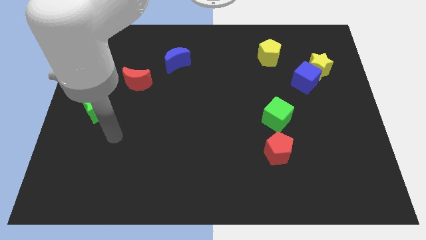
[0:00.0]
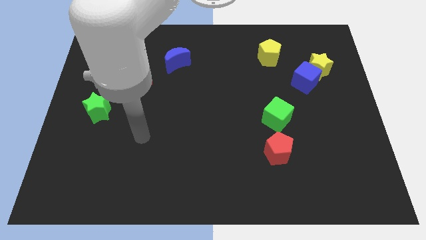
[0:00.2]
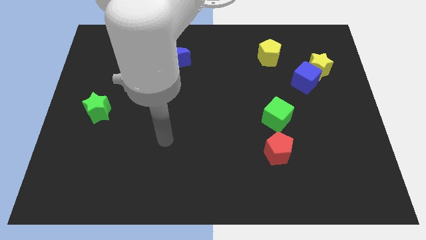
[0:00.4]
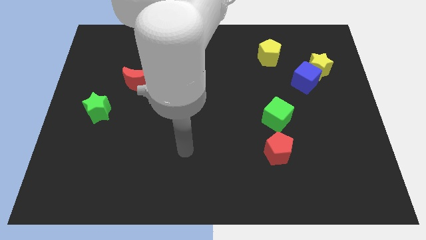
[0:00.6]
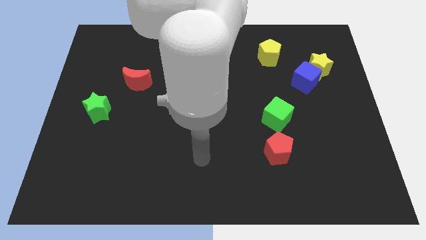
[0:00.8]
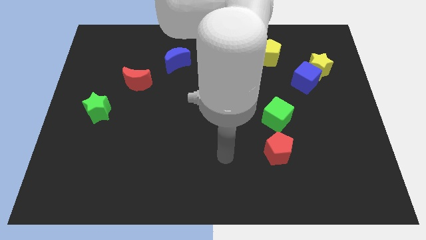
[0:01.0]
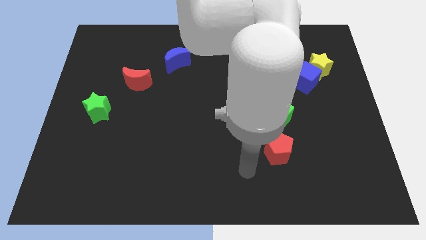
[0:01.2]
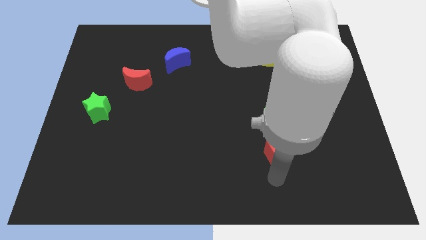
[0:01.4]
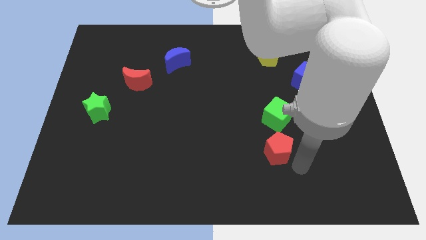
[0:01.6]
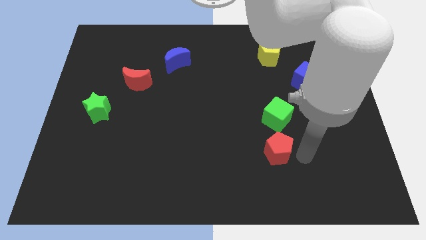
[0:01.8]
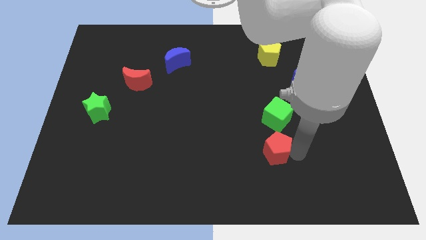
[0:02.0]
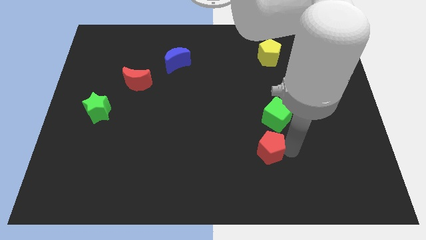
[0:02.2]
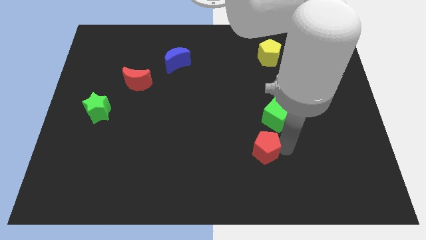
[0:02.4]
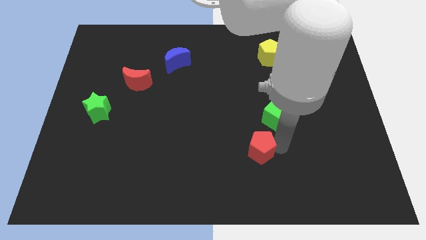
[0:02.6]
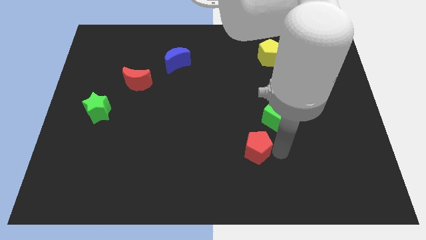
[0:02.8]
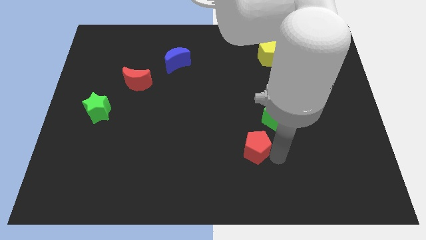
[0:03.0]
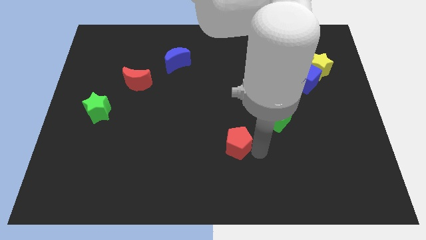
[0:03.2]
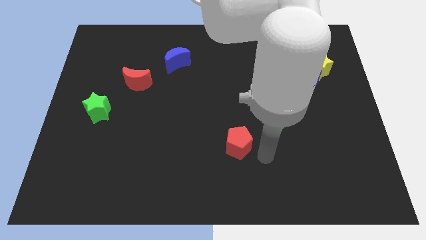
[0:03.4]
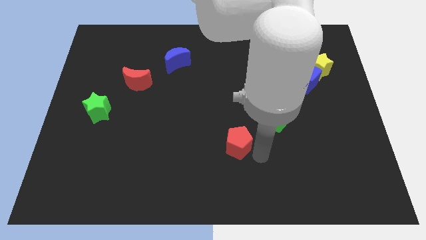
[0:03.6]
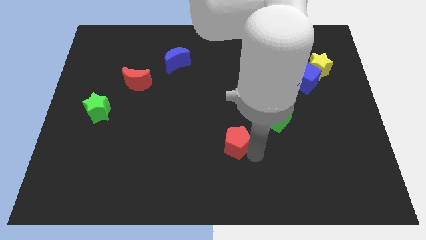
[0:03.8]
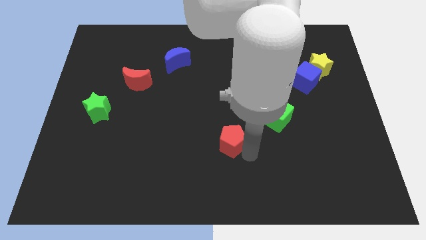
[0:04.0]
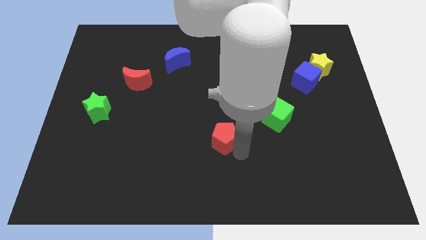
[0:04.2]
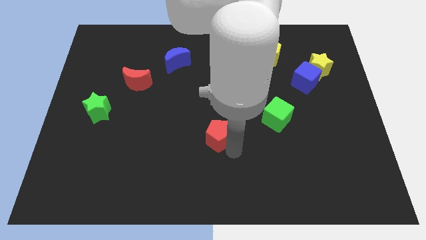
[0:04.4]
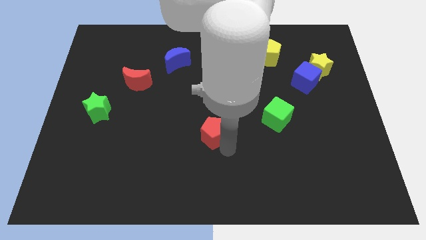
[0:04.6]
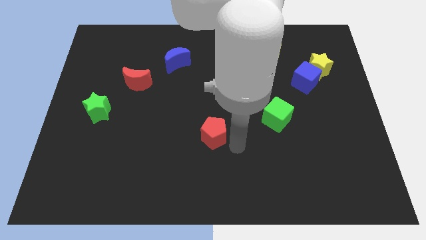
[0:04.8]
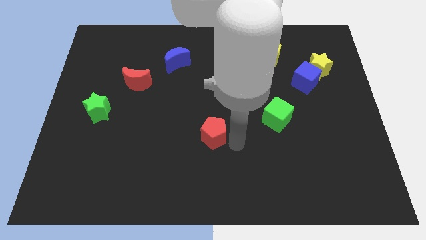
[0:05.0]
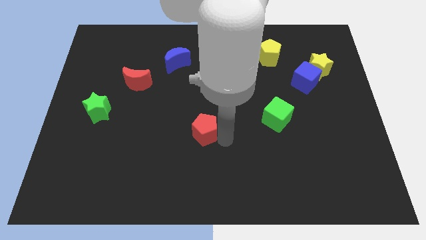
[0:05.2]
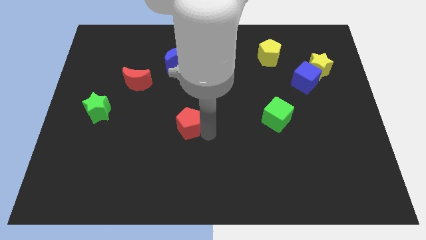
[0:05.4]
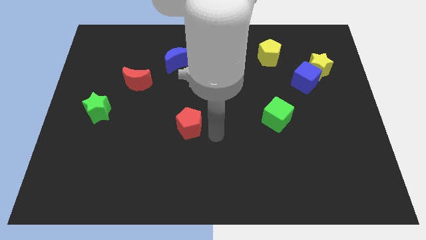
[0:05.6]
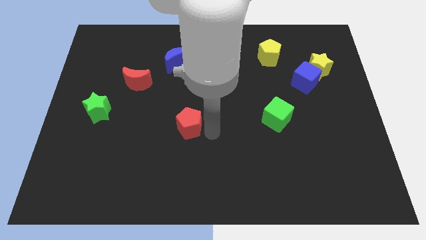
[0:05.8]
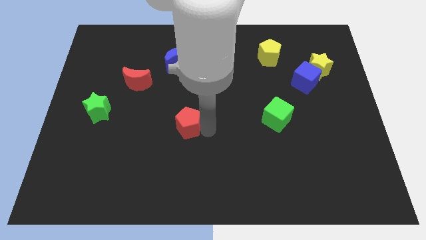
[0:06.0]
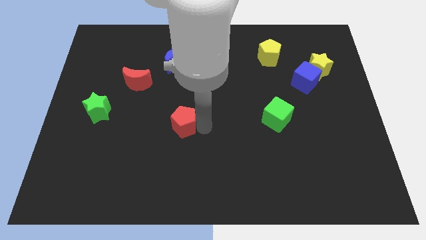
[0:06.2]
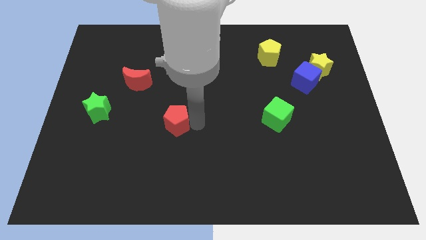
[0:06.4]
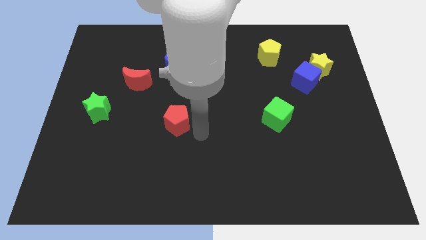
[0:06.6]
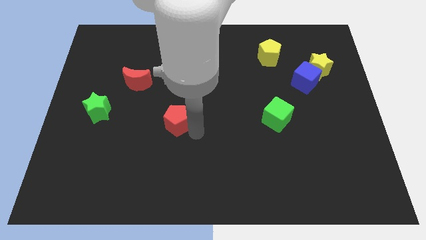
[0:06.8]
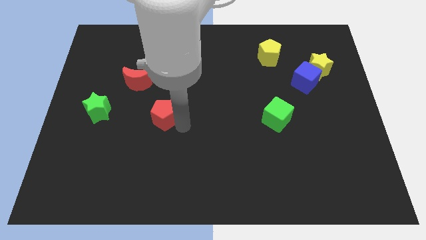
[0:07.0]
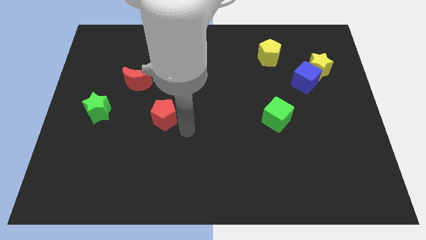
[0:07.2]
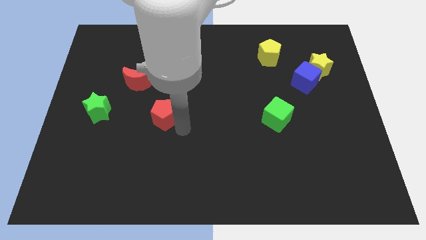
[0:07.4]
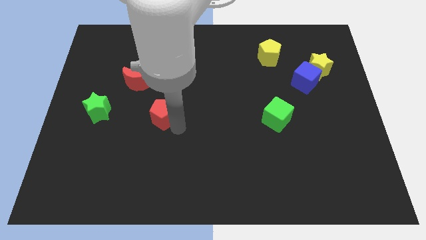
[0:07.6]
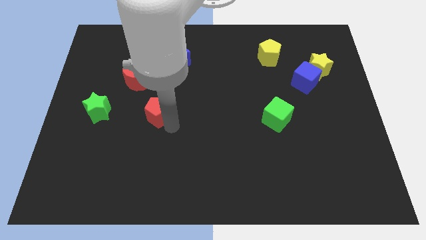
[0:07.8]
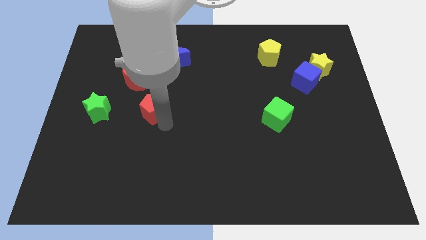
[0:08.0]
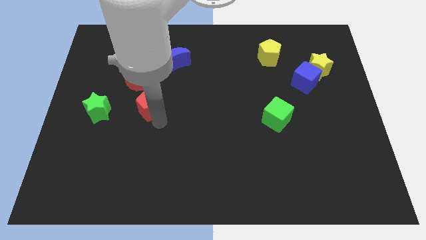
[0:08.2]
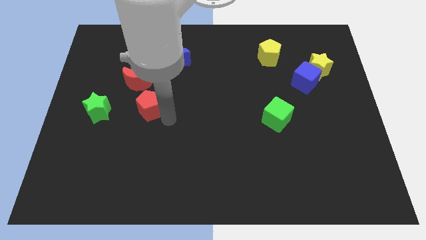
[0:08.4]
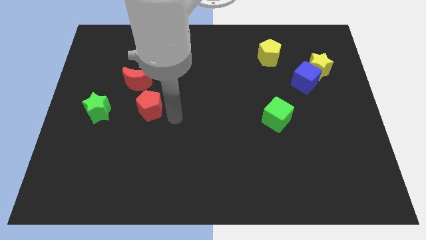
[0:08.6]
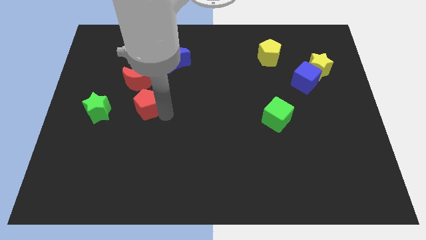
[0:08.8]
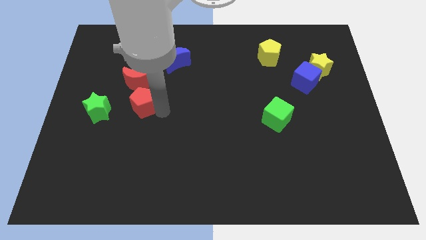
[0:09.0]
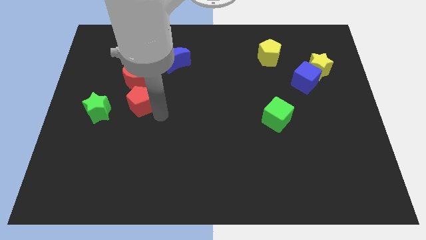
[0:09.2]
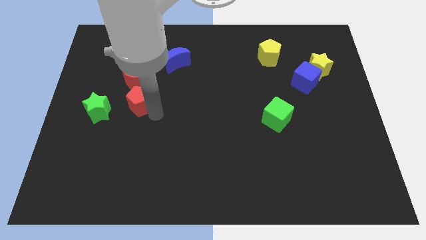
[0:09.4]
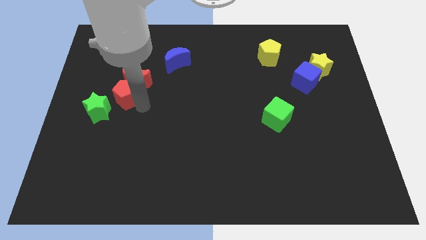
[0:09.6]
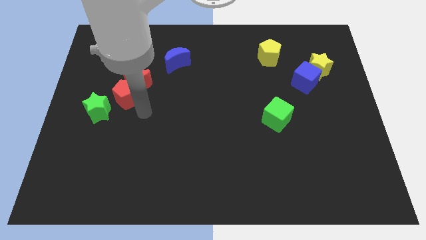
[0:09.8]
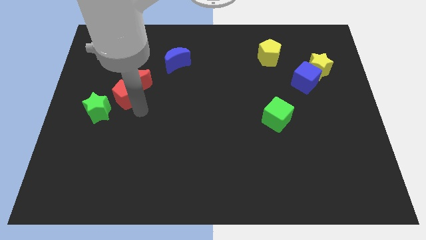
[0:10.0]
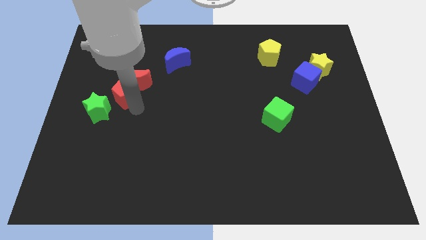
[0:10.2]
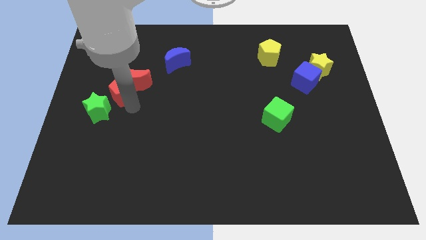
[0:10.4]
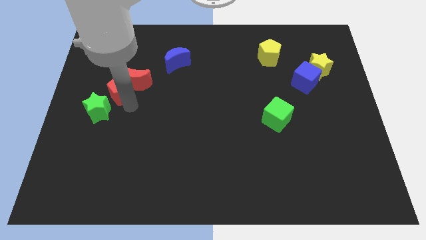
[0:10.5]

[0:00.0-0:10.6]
put the red pentagon to the top of the green star

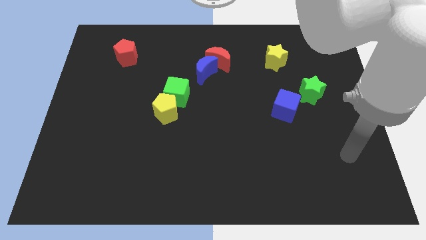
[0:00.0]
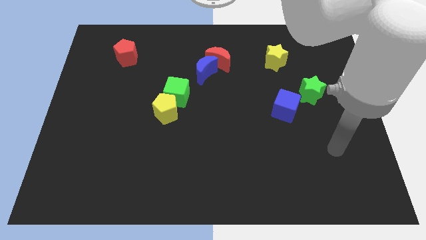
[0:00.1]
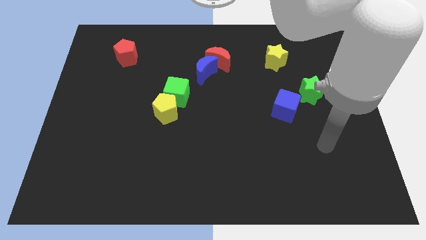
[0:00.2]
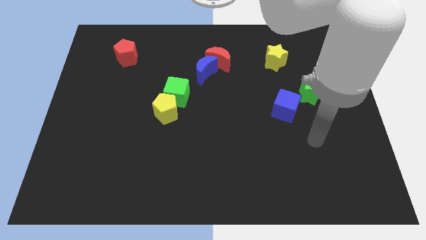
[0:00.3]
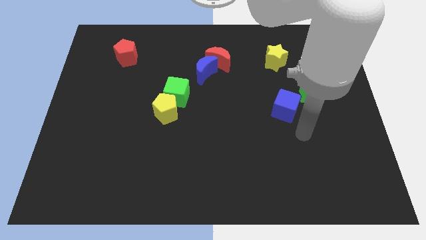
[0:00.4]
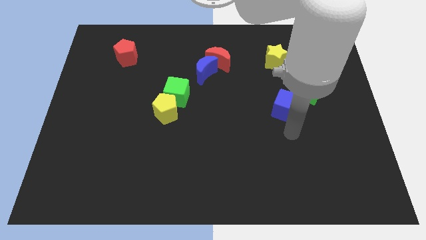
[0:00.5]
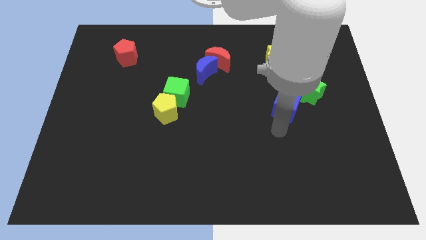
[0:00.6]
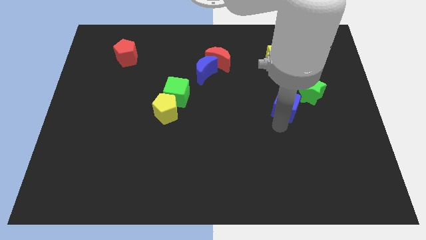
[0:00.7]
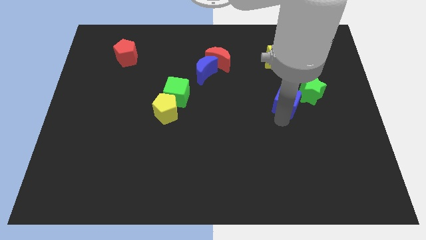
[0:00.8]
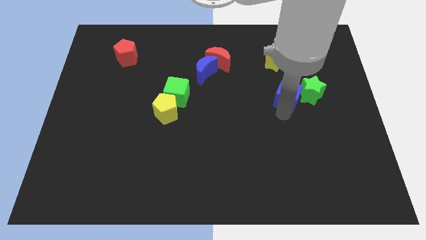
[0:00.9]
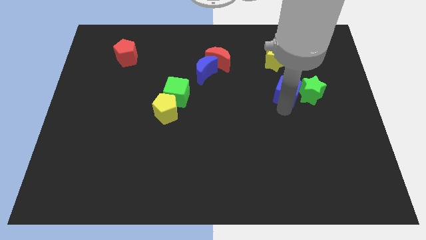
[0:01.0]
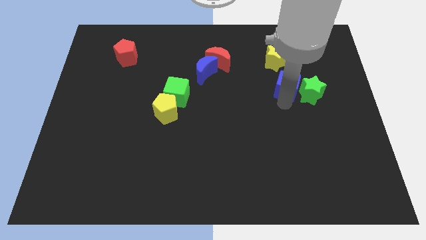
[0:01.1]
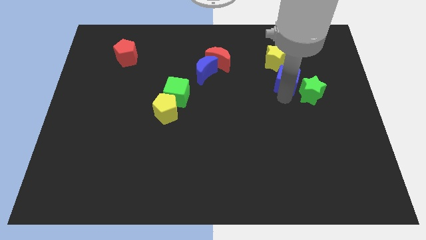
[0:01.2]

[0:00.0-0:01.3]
slide the blue cube to the bottom right side of the yellow star

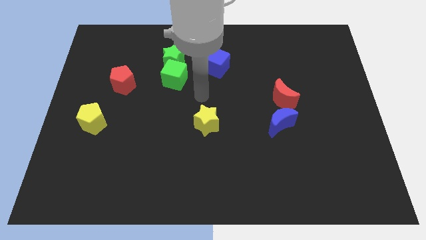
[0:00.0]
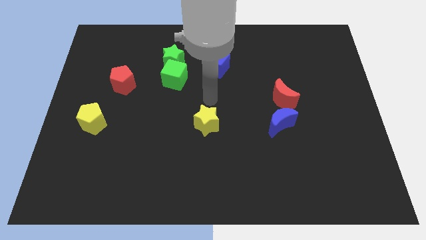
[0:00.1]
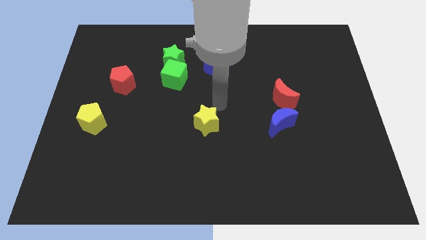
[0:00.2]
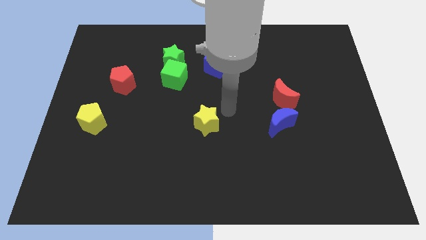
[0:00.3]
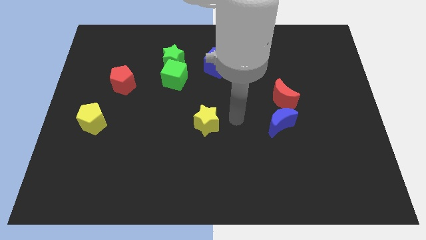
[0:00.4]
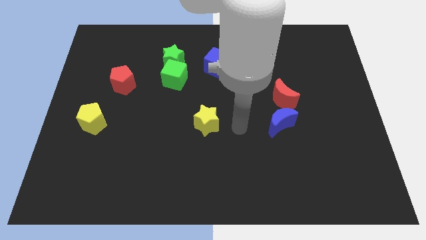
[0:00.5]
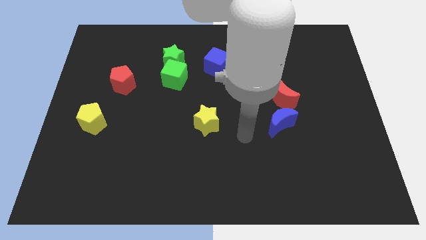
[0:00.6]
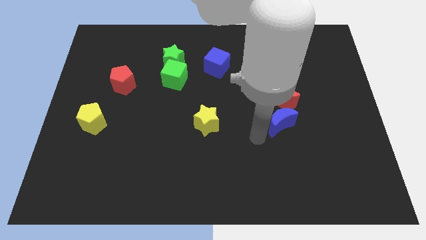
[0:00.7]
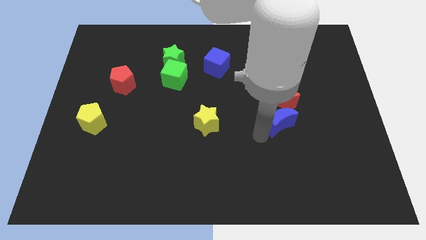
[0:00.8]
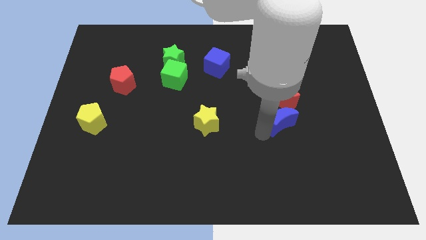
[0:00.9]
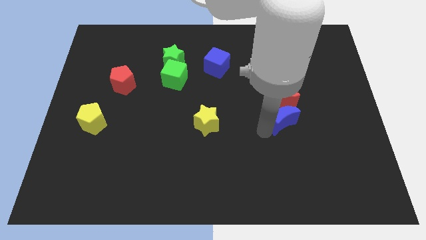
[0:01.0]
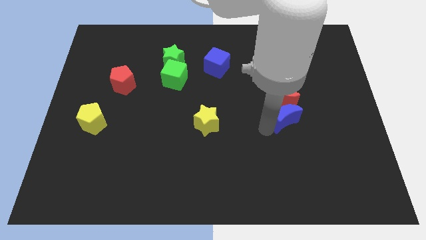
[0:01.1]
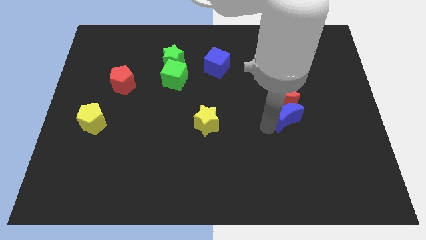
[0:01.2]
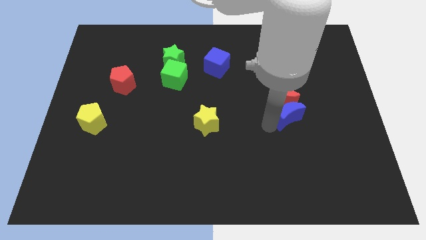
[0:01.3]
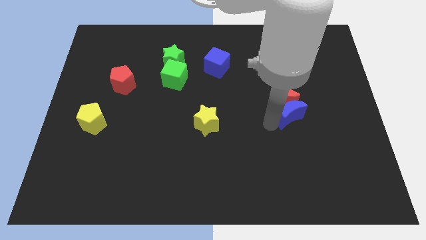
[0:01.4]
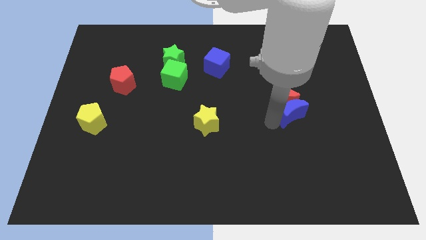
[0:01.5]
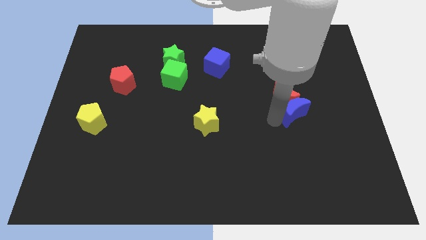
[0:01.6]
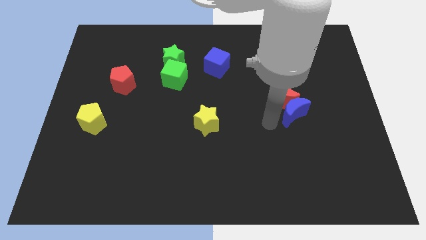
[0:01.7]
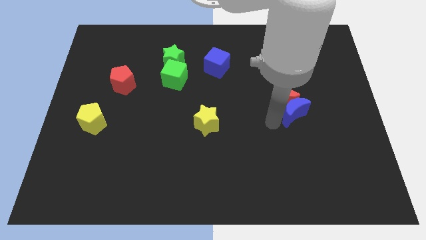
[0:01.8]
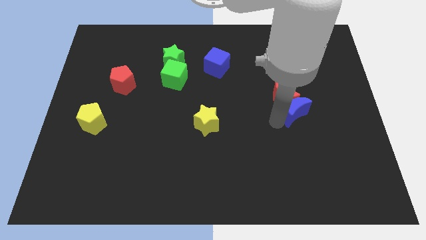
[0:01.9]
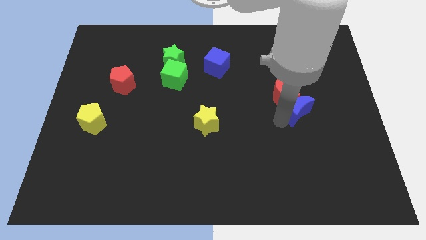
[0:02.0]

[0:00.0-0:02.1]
push the blue moon right of the red moon

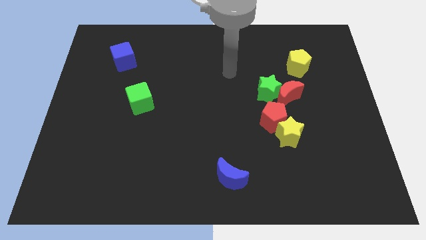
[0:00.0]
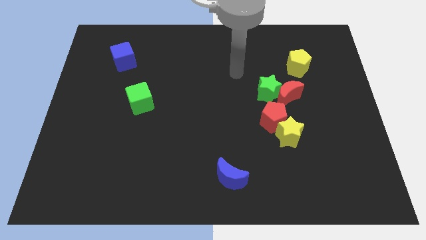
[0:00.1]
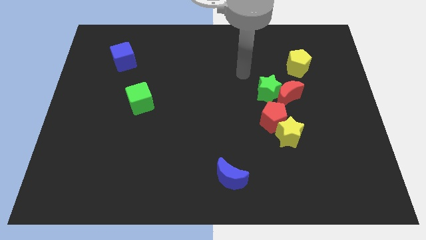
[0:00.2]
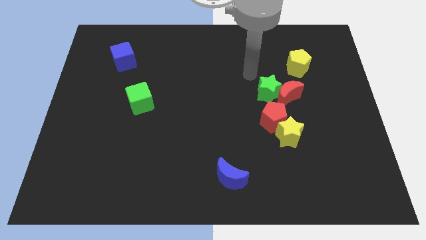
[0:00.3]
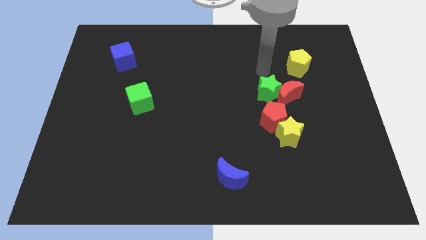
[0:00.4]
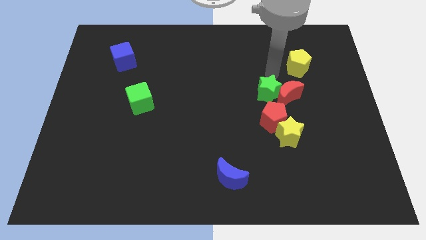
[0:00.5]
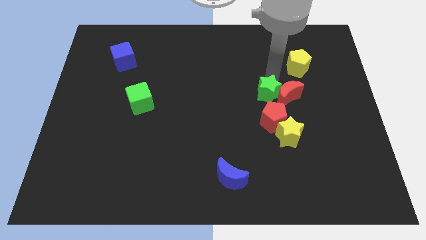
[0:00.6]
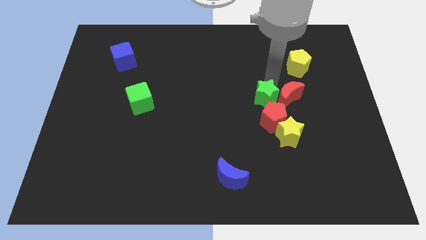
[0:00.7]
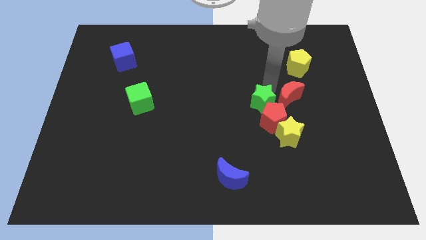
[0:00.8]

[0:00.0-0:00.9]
put the green star to the top left side of the yellow star
